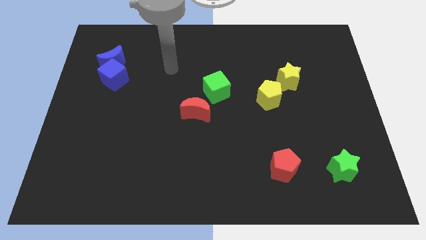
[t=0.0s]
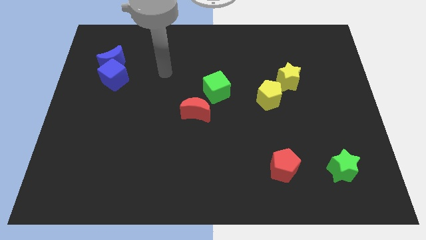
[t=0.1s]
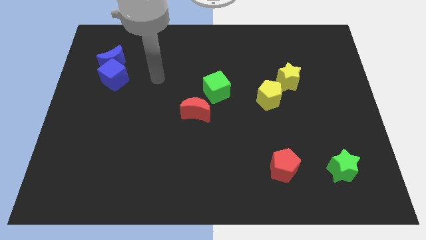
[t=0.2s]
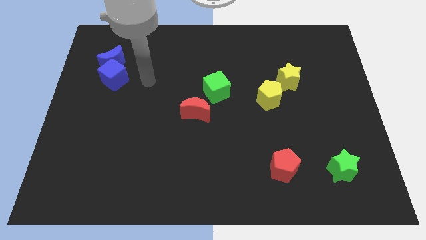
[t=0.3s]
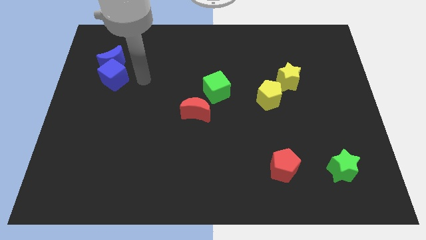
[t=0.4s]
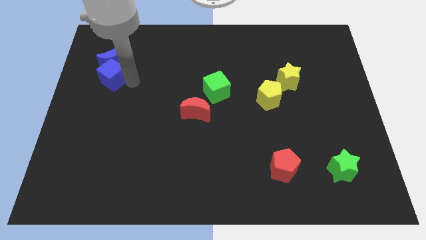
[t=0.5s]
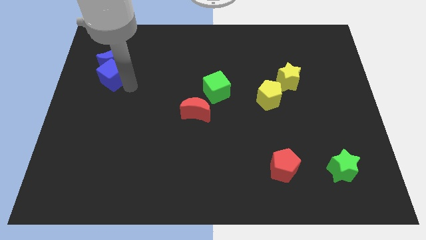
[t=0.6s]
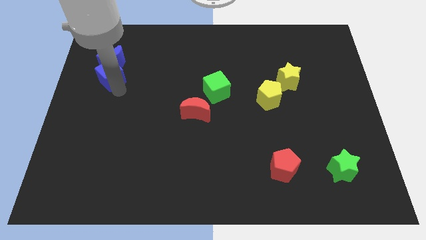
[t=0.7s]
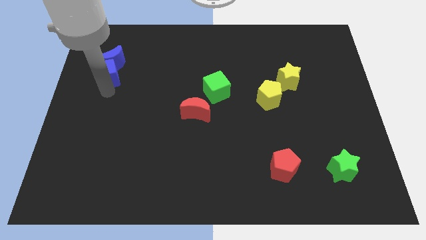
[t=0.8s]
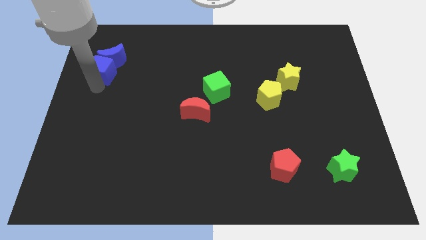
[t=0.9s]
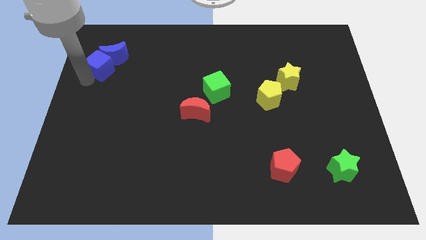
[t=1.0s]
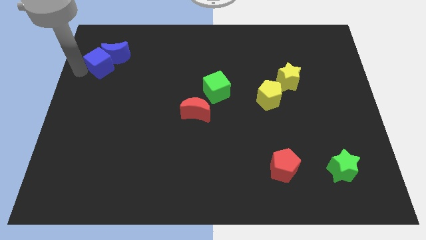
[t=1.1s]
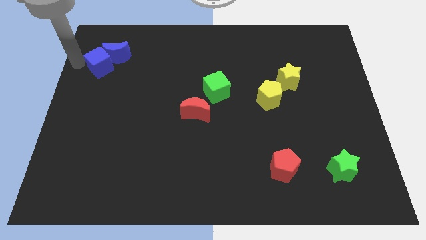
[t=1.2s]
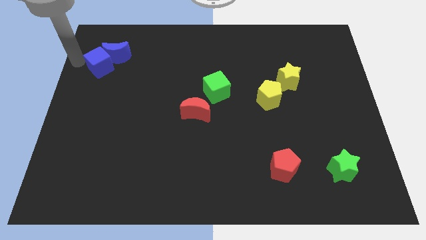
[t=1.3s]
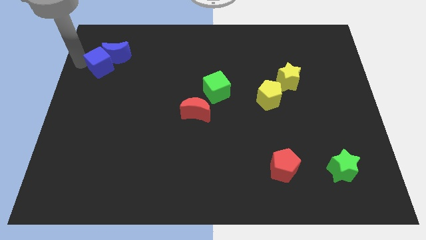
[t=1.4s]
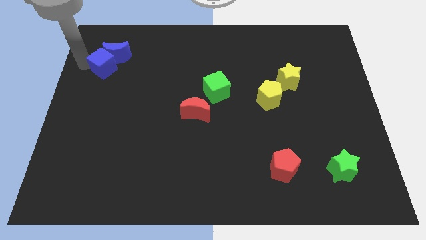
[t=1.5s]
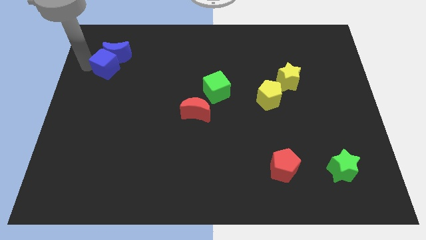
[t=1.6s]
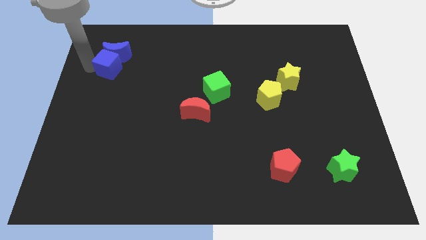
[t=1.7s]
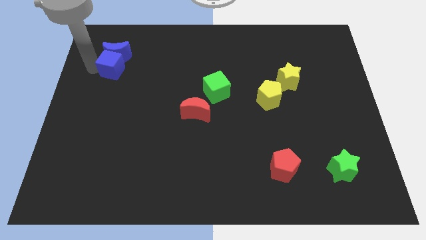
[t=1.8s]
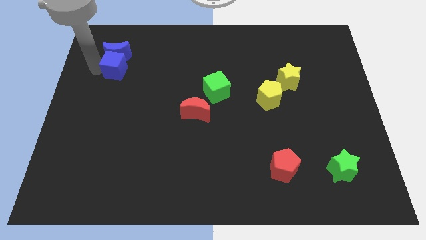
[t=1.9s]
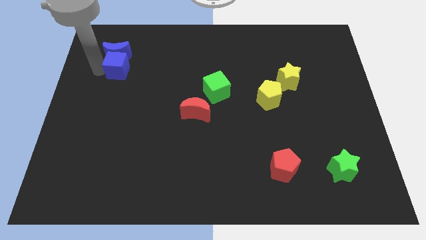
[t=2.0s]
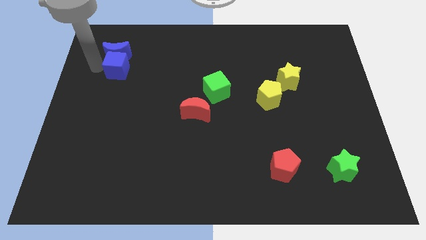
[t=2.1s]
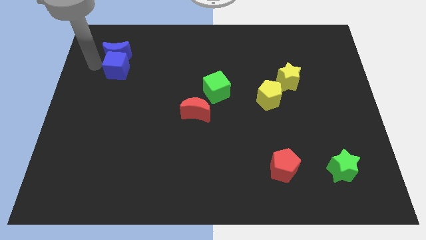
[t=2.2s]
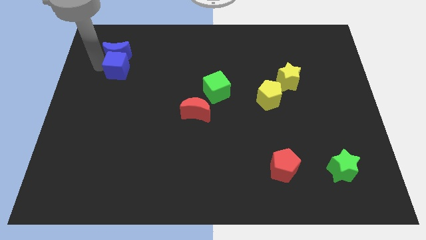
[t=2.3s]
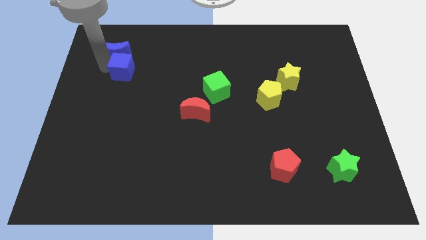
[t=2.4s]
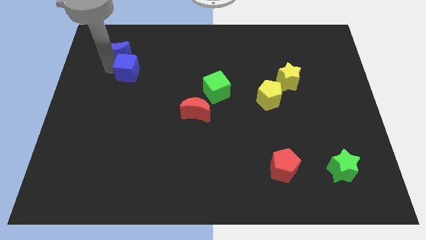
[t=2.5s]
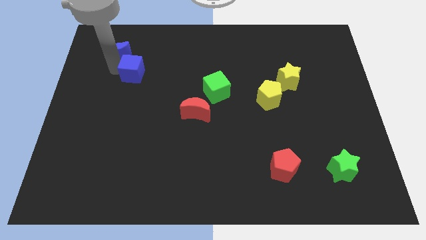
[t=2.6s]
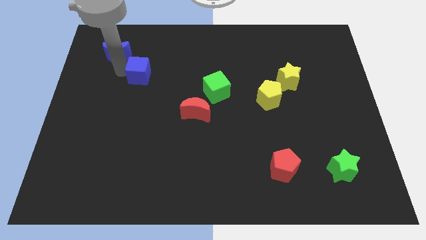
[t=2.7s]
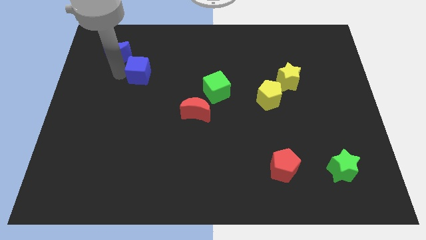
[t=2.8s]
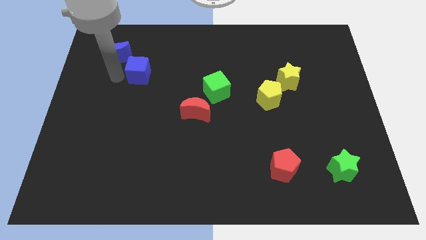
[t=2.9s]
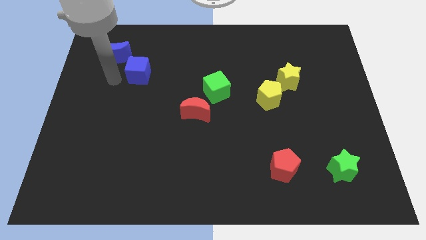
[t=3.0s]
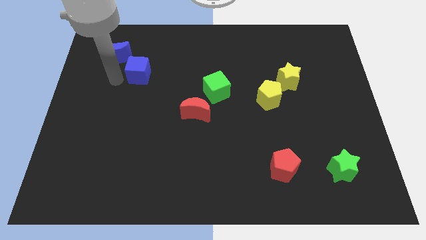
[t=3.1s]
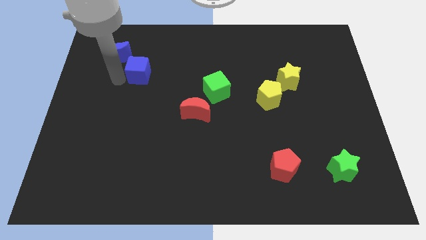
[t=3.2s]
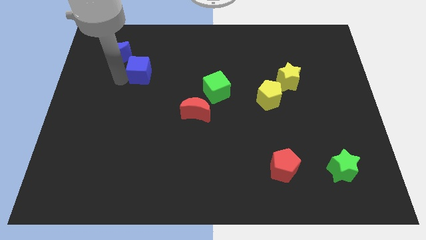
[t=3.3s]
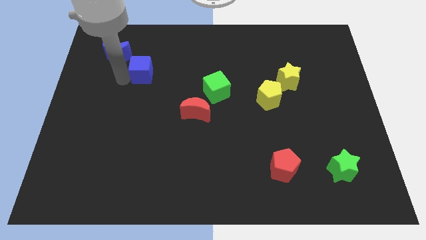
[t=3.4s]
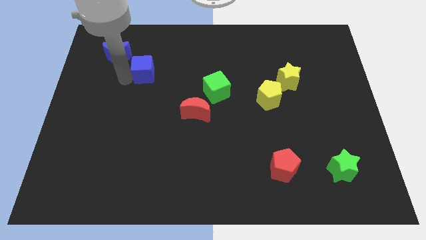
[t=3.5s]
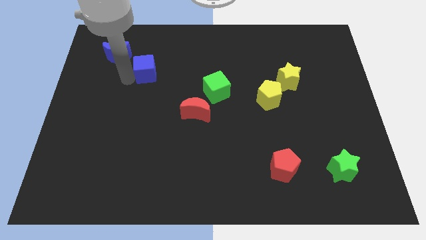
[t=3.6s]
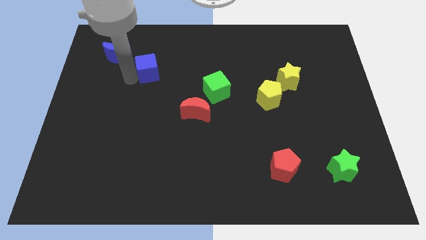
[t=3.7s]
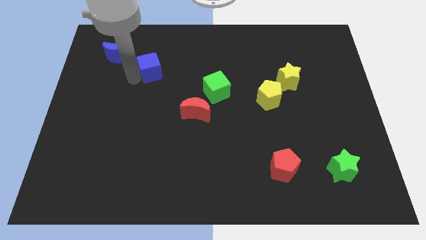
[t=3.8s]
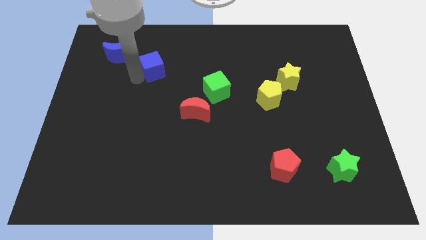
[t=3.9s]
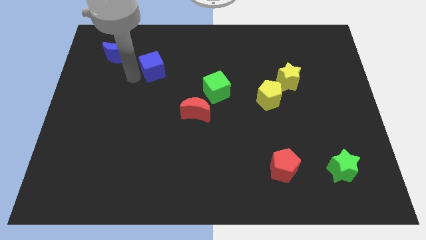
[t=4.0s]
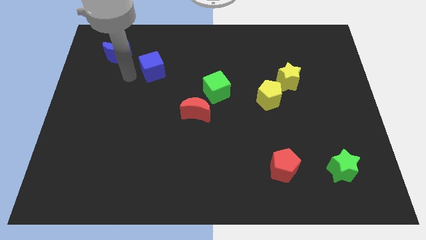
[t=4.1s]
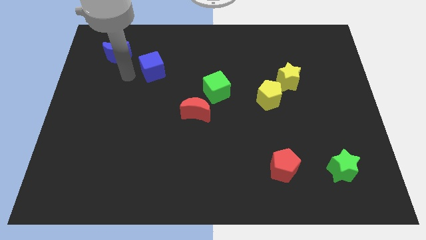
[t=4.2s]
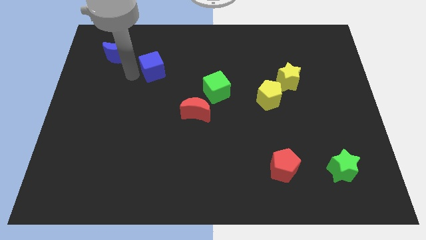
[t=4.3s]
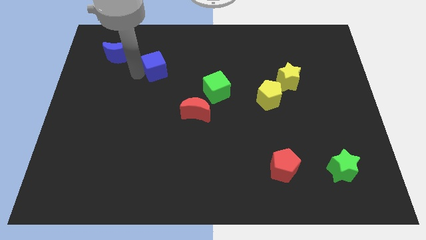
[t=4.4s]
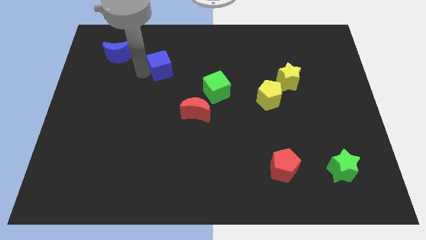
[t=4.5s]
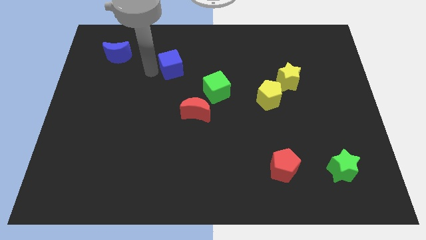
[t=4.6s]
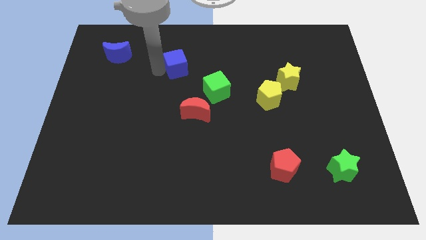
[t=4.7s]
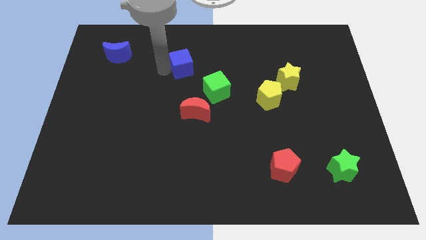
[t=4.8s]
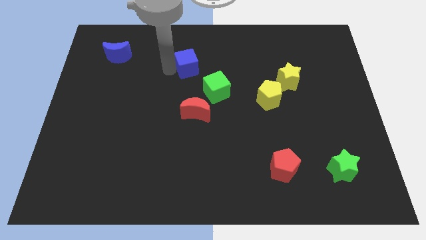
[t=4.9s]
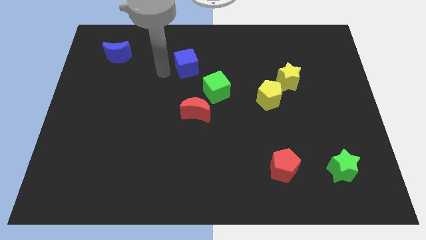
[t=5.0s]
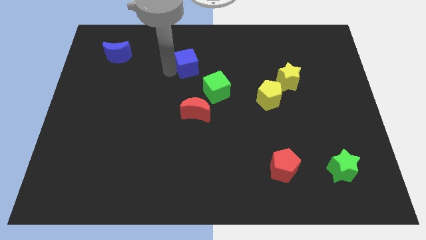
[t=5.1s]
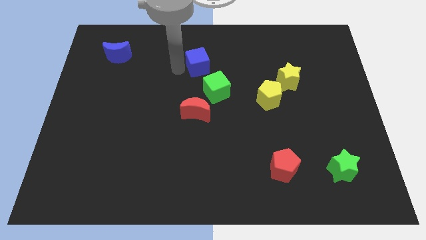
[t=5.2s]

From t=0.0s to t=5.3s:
push the blue cube above the green cube

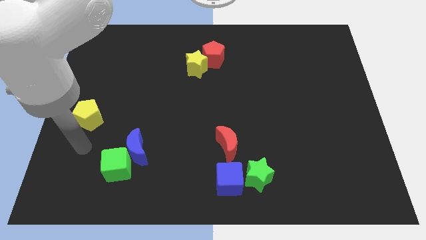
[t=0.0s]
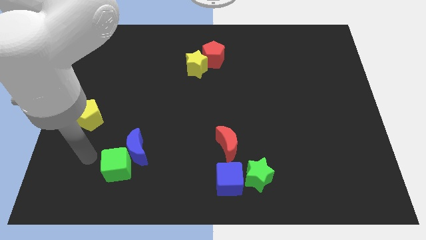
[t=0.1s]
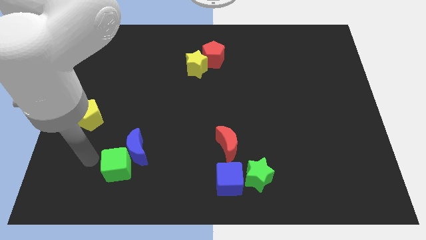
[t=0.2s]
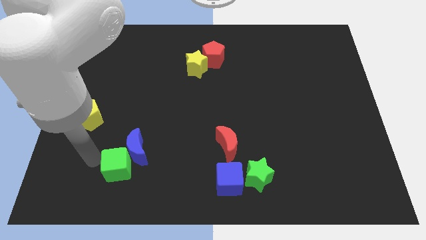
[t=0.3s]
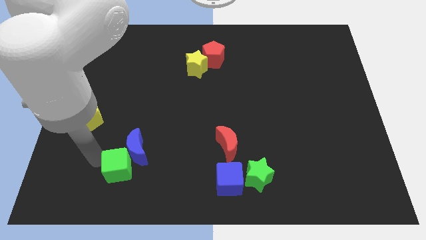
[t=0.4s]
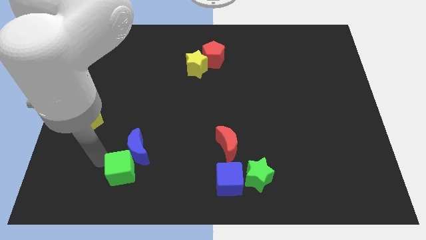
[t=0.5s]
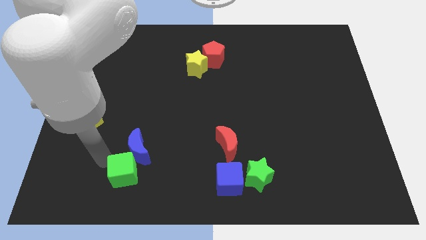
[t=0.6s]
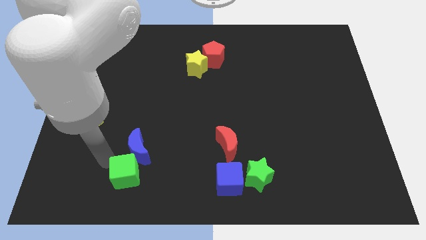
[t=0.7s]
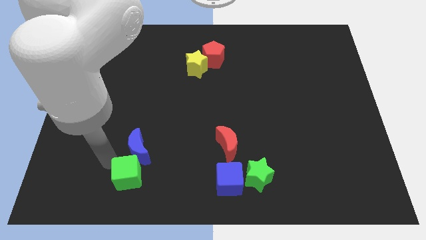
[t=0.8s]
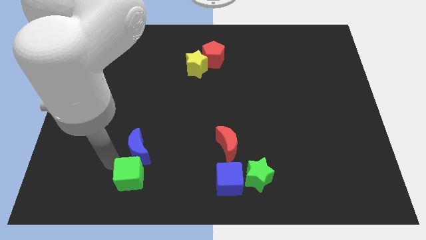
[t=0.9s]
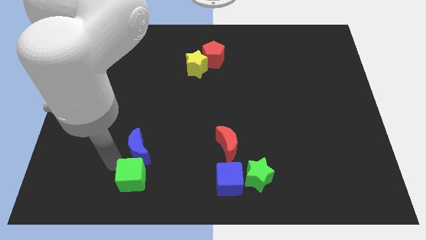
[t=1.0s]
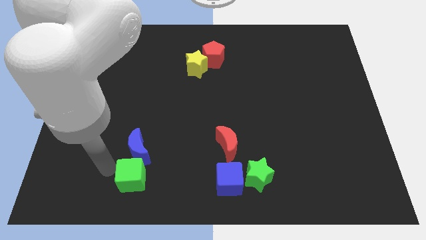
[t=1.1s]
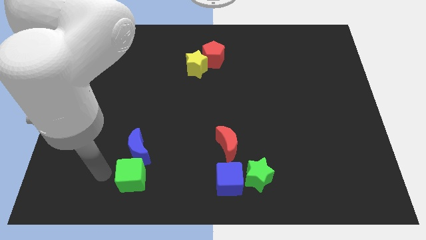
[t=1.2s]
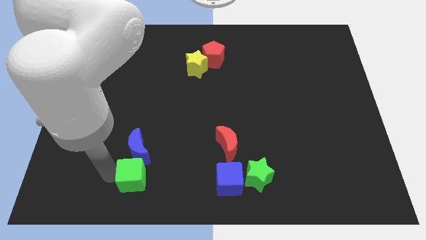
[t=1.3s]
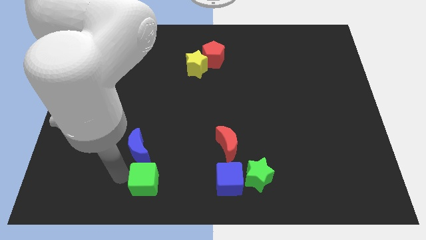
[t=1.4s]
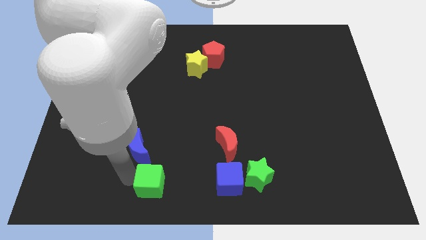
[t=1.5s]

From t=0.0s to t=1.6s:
slide the green cube left of the blue cube

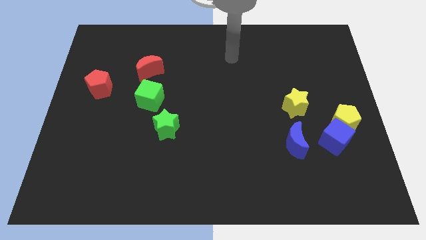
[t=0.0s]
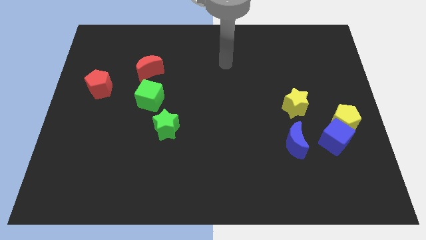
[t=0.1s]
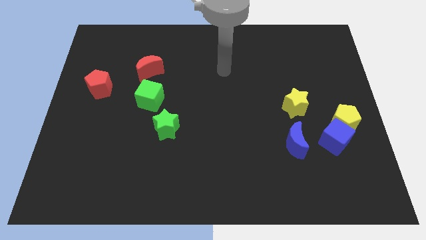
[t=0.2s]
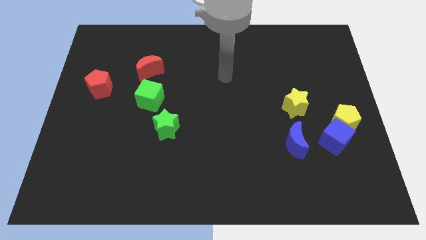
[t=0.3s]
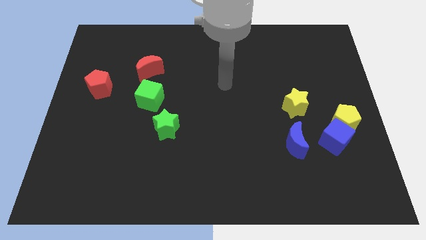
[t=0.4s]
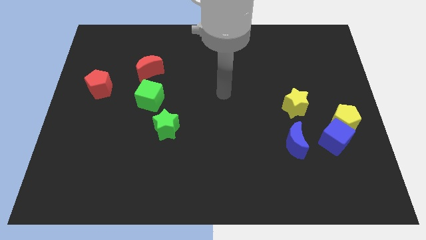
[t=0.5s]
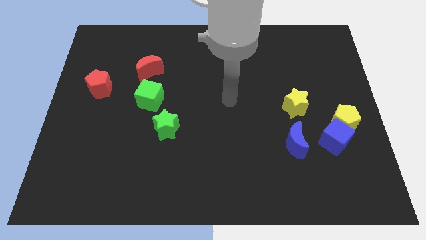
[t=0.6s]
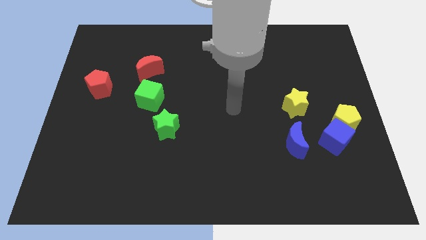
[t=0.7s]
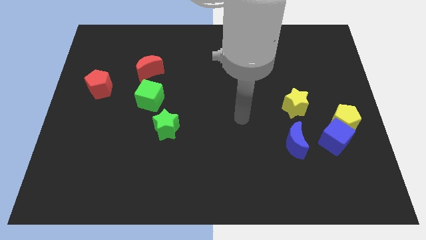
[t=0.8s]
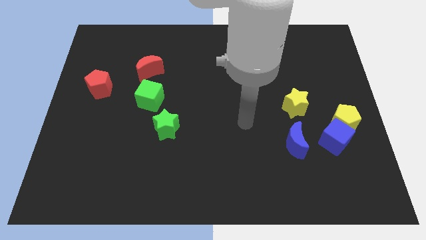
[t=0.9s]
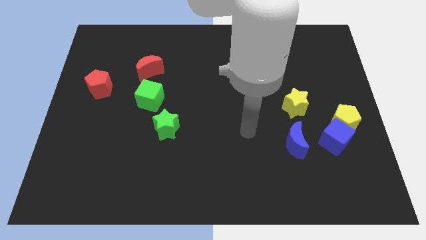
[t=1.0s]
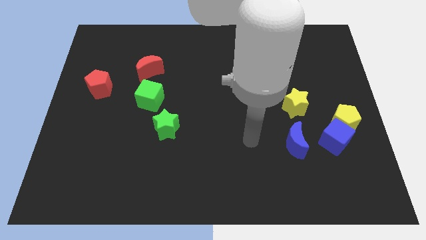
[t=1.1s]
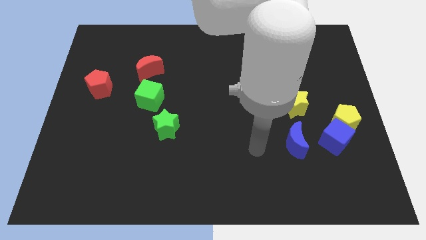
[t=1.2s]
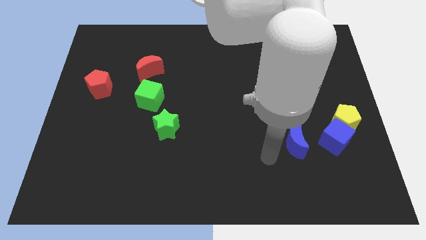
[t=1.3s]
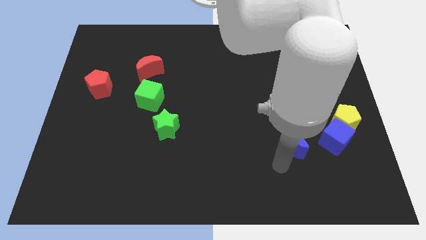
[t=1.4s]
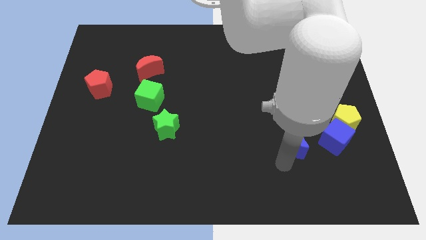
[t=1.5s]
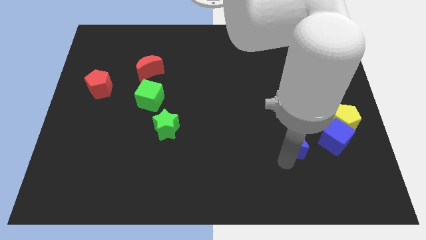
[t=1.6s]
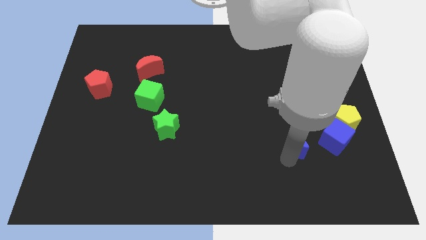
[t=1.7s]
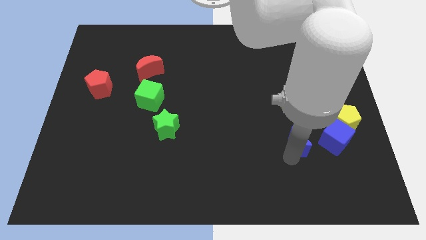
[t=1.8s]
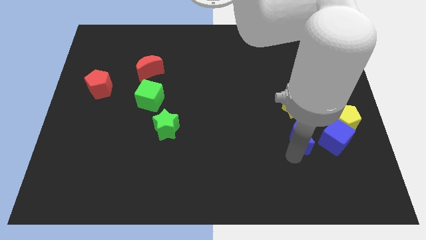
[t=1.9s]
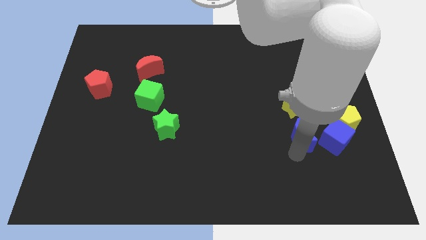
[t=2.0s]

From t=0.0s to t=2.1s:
move the blue moon to the top left of the blue cube
